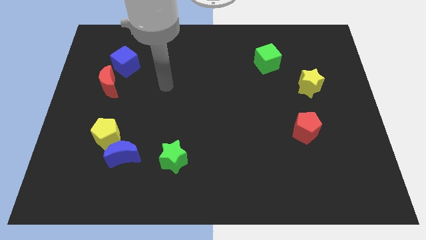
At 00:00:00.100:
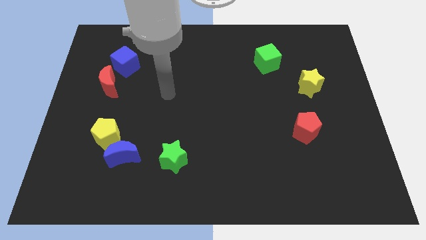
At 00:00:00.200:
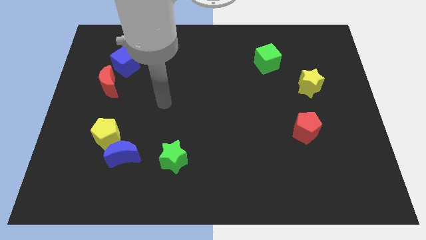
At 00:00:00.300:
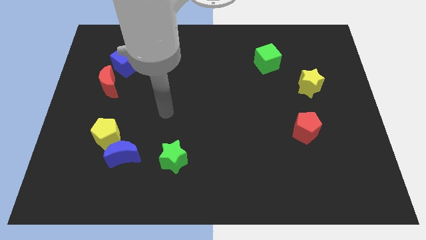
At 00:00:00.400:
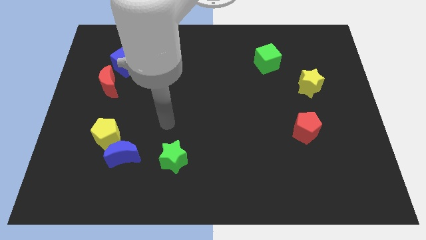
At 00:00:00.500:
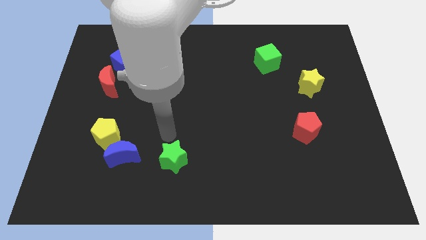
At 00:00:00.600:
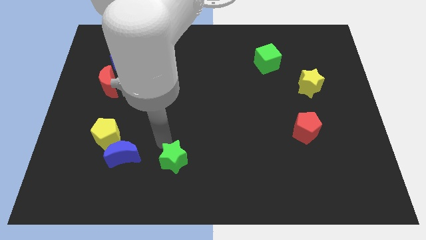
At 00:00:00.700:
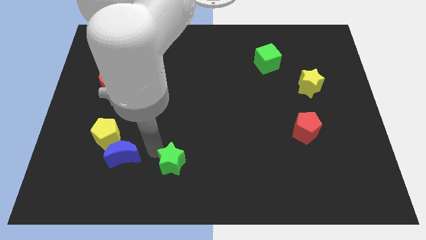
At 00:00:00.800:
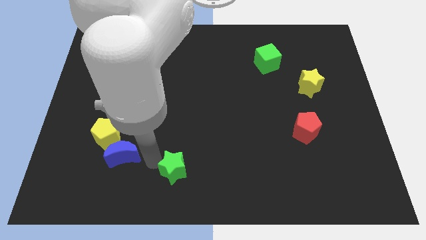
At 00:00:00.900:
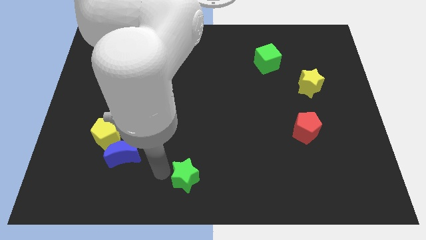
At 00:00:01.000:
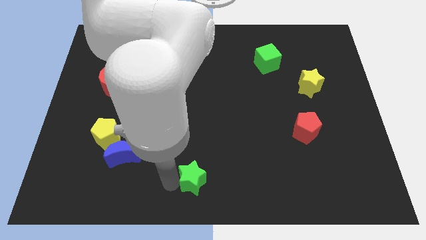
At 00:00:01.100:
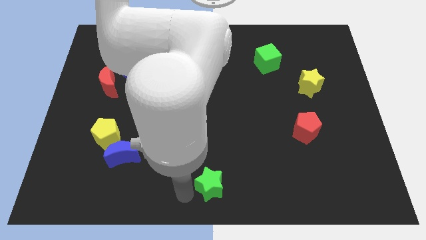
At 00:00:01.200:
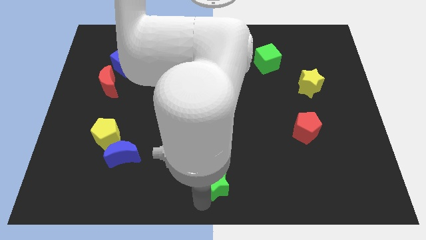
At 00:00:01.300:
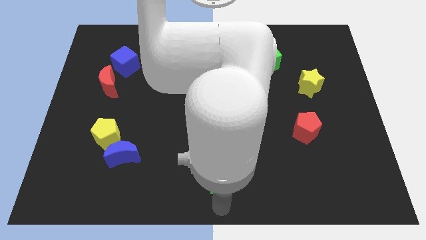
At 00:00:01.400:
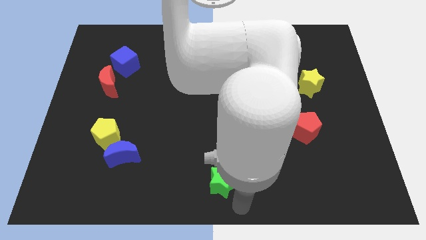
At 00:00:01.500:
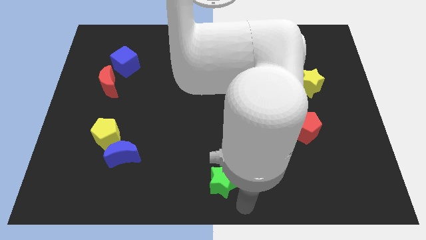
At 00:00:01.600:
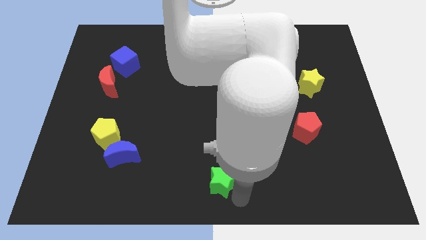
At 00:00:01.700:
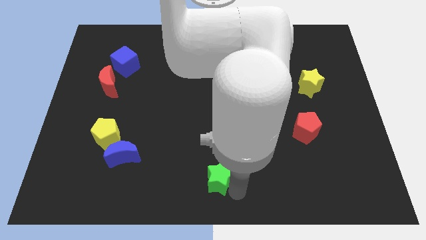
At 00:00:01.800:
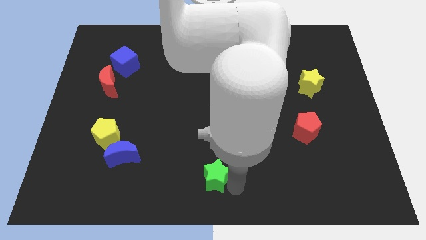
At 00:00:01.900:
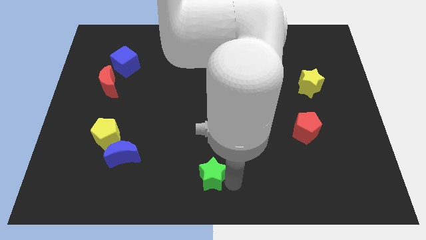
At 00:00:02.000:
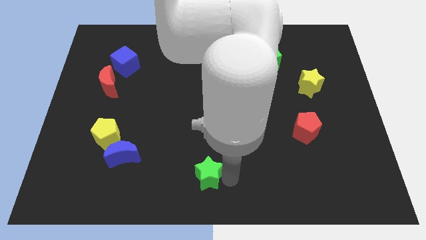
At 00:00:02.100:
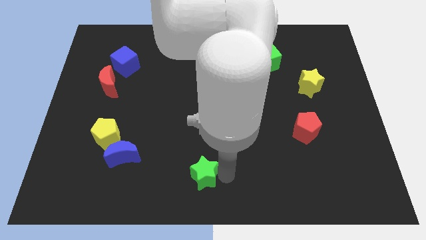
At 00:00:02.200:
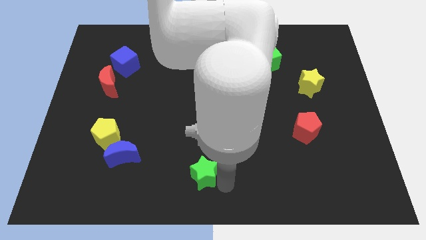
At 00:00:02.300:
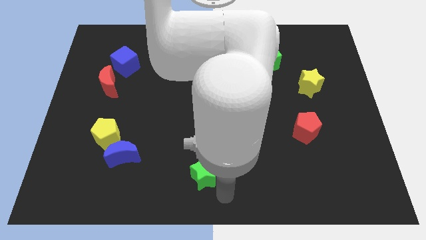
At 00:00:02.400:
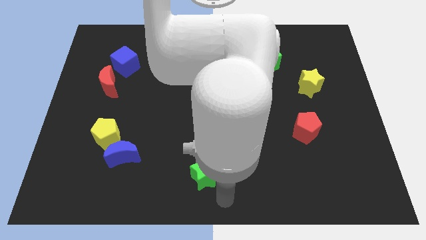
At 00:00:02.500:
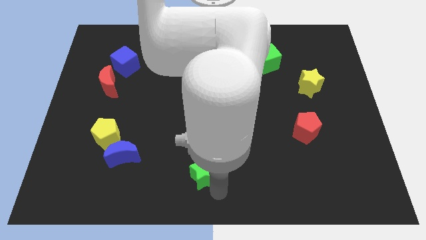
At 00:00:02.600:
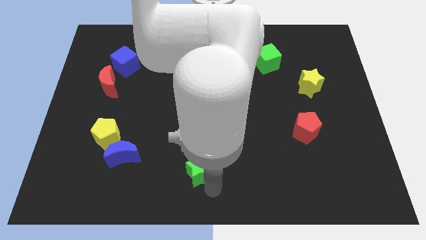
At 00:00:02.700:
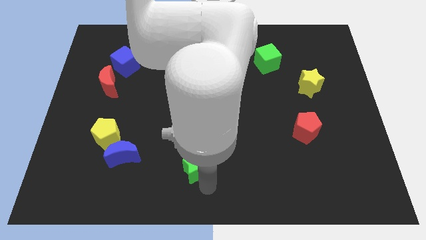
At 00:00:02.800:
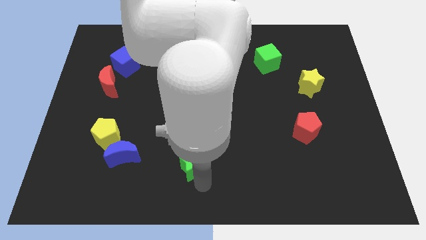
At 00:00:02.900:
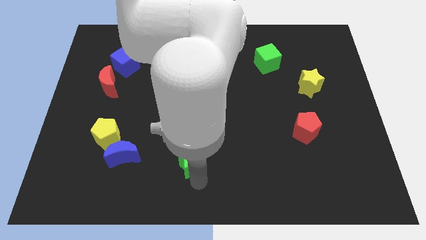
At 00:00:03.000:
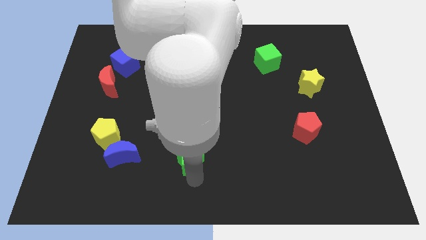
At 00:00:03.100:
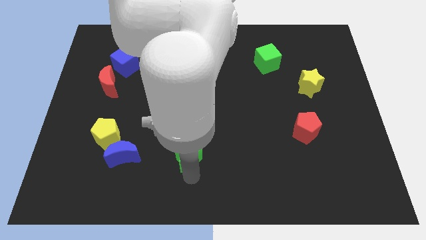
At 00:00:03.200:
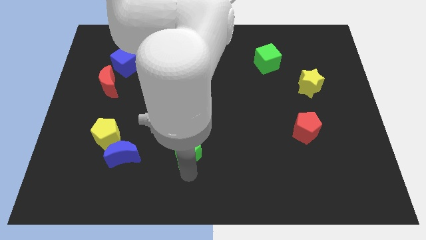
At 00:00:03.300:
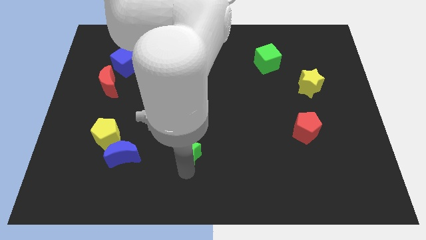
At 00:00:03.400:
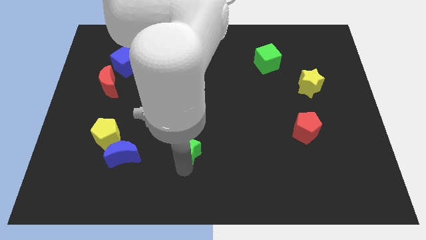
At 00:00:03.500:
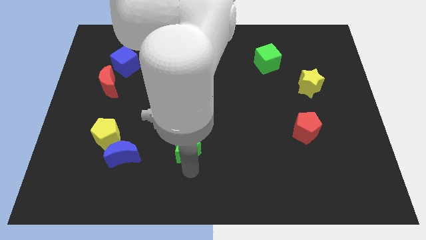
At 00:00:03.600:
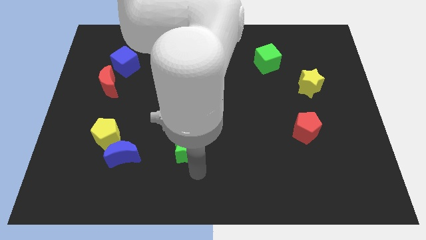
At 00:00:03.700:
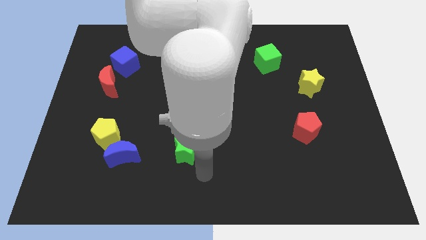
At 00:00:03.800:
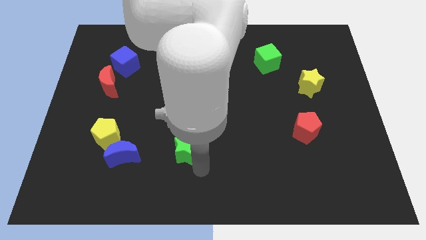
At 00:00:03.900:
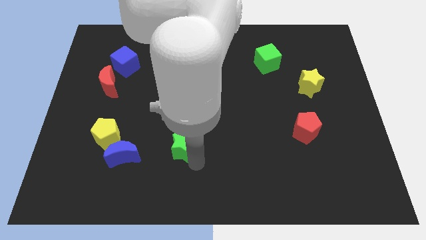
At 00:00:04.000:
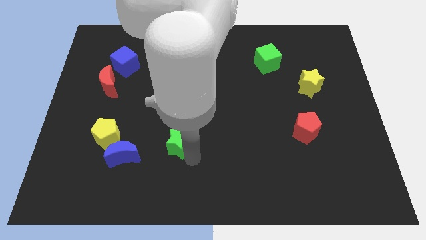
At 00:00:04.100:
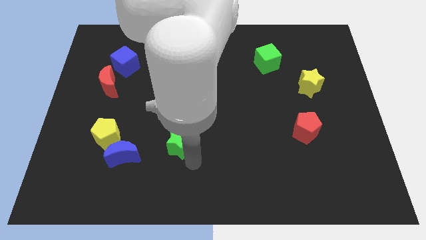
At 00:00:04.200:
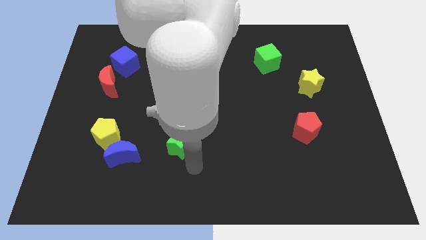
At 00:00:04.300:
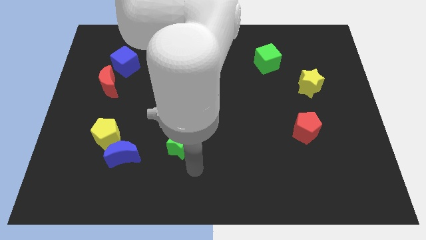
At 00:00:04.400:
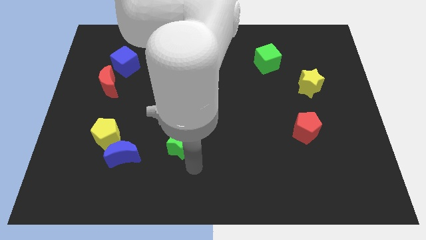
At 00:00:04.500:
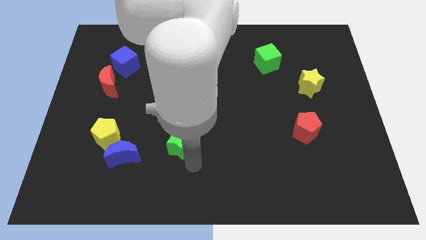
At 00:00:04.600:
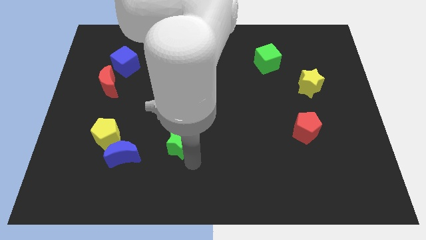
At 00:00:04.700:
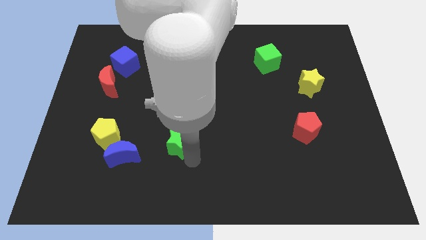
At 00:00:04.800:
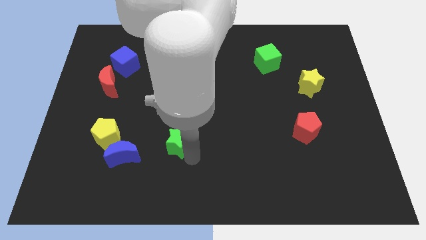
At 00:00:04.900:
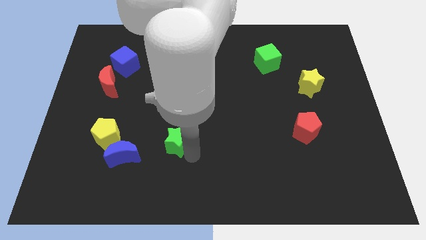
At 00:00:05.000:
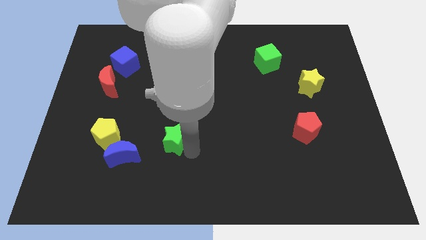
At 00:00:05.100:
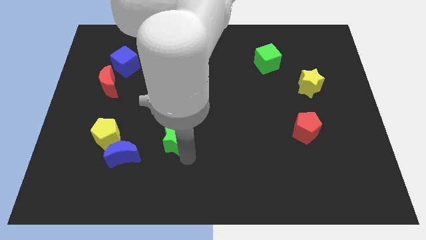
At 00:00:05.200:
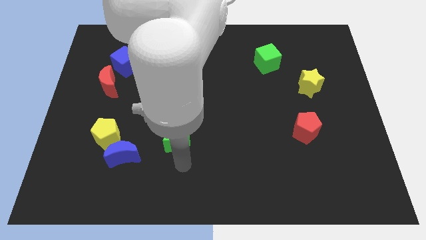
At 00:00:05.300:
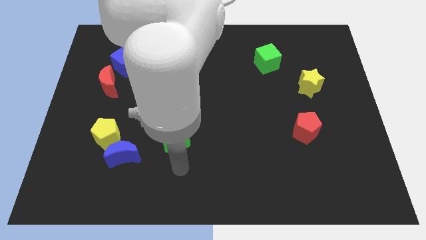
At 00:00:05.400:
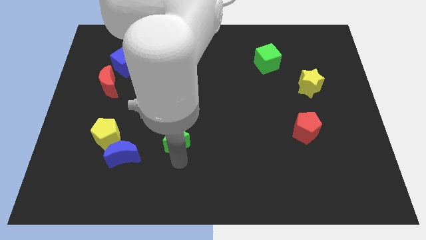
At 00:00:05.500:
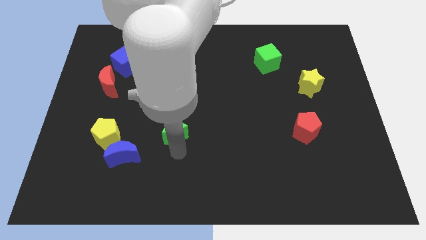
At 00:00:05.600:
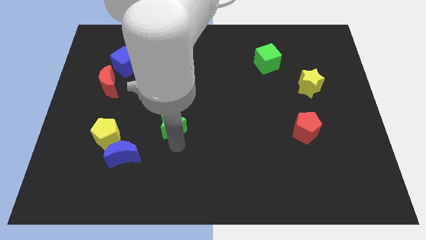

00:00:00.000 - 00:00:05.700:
slide the green star a little upwards

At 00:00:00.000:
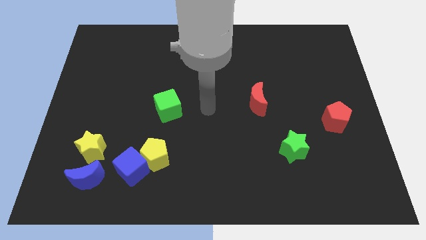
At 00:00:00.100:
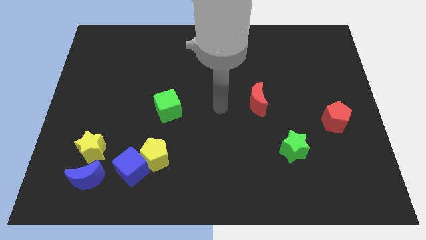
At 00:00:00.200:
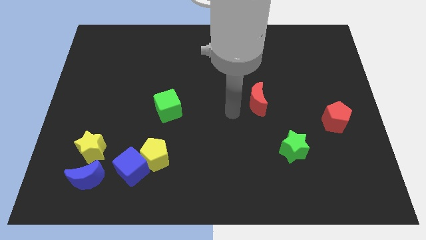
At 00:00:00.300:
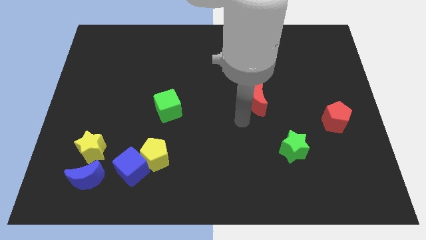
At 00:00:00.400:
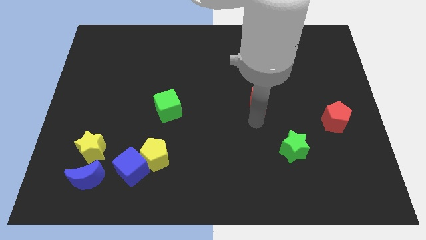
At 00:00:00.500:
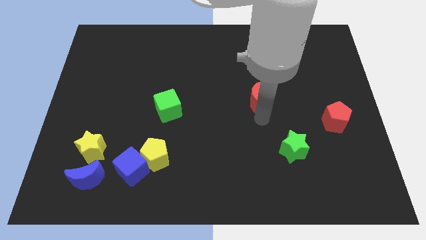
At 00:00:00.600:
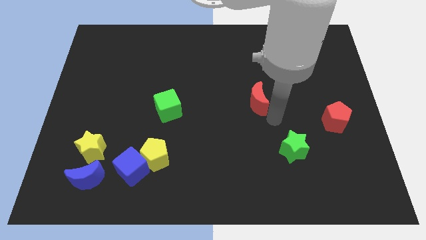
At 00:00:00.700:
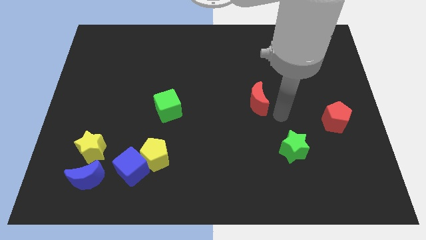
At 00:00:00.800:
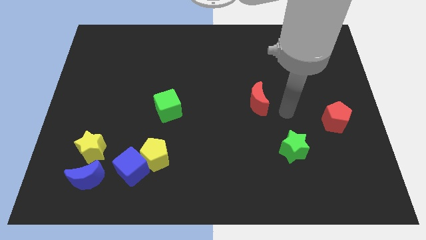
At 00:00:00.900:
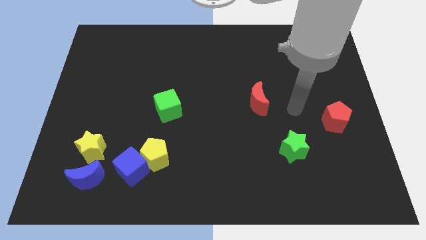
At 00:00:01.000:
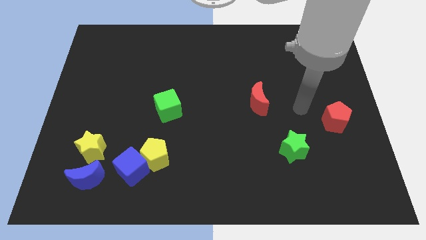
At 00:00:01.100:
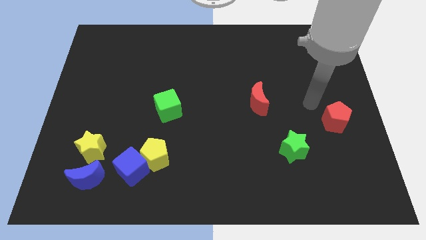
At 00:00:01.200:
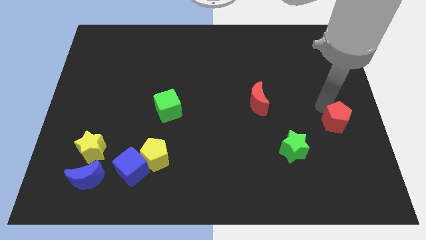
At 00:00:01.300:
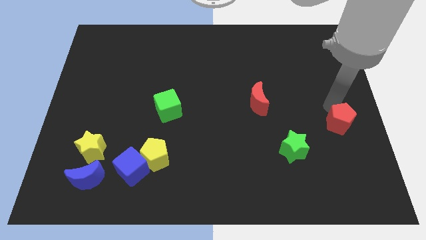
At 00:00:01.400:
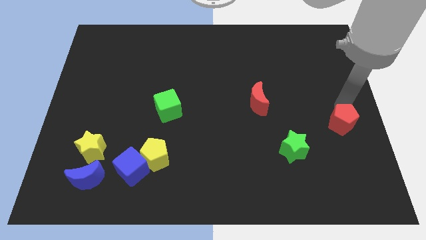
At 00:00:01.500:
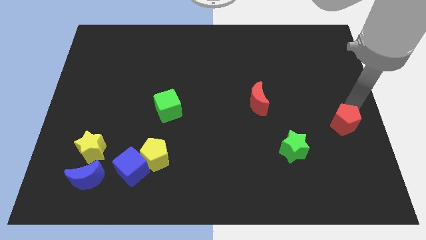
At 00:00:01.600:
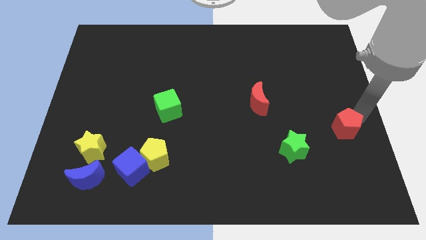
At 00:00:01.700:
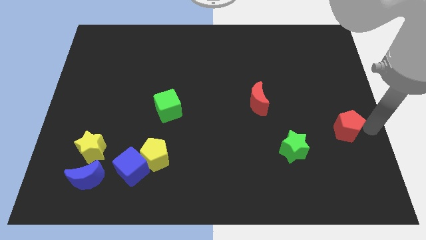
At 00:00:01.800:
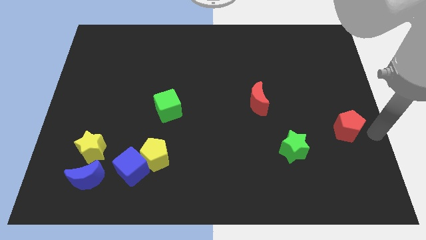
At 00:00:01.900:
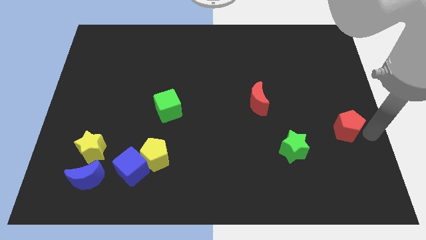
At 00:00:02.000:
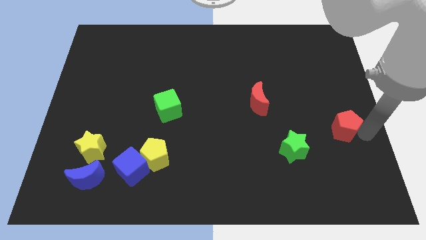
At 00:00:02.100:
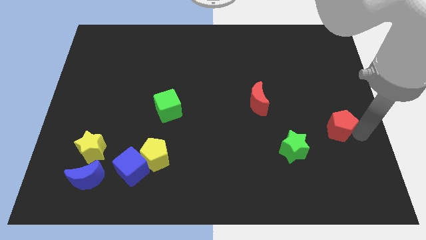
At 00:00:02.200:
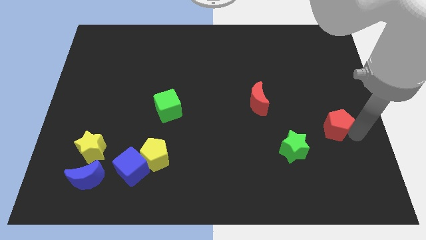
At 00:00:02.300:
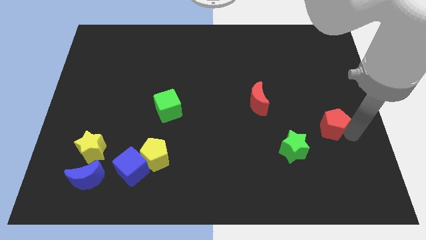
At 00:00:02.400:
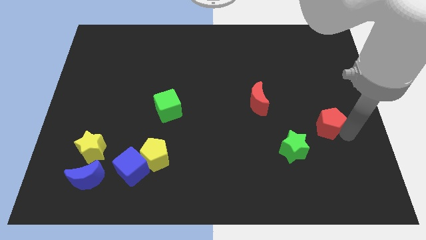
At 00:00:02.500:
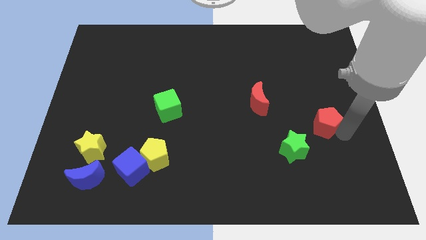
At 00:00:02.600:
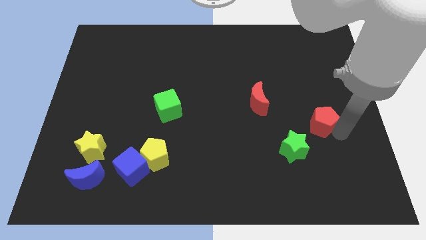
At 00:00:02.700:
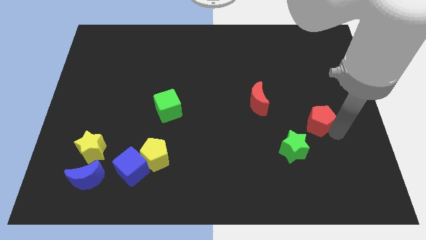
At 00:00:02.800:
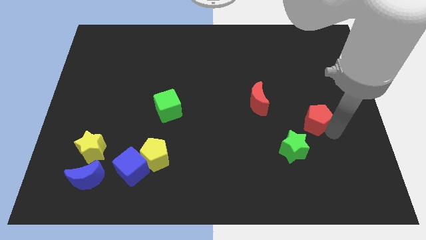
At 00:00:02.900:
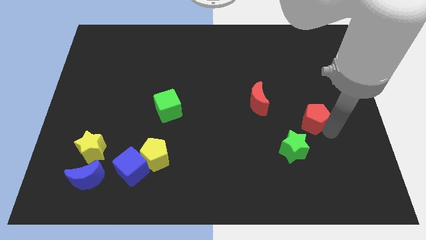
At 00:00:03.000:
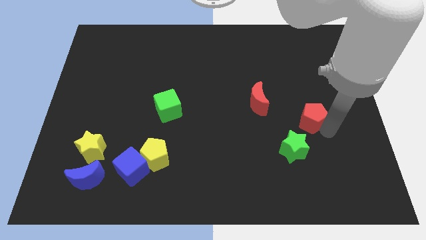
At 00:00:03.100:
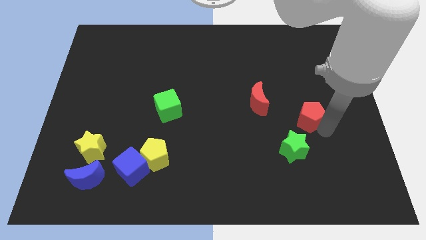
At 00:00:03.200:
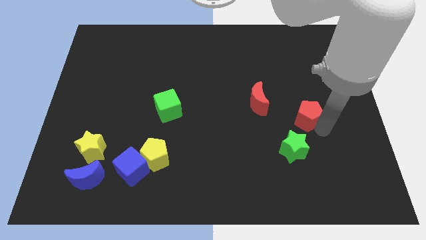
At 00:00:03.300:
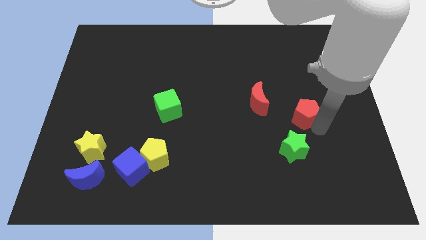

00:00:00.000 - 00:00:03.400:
push the red pentagon left a little
